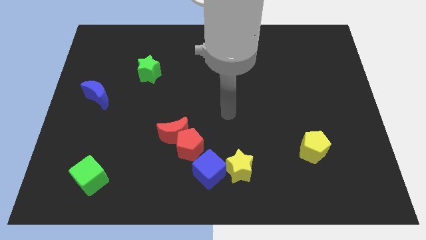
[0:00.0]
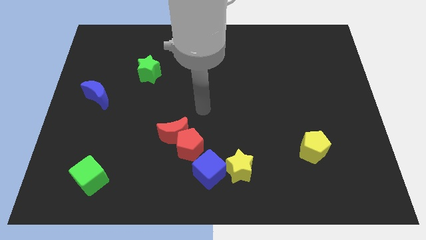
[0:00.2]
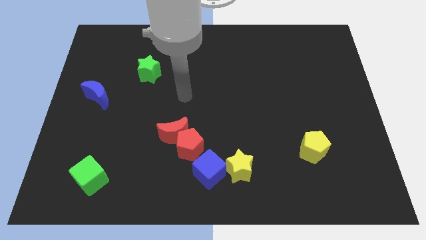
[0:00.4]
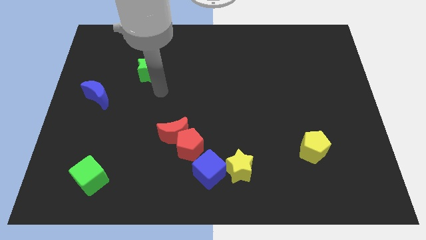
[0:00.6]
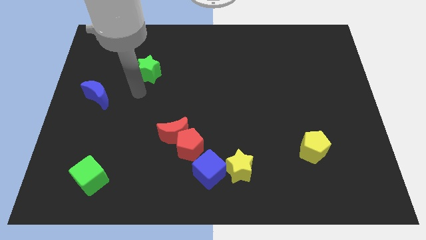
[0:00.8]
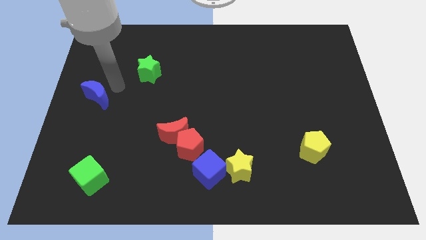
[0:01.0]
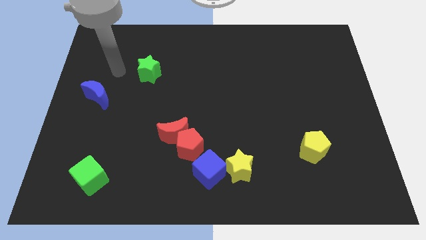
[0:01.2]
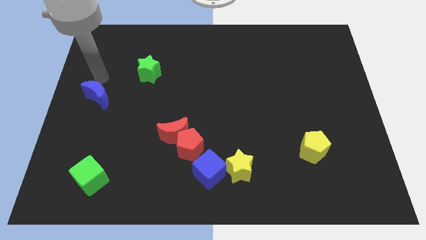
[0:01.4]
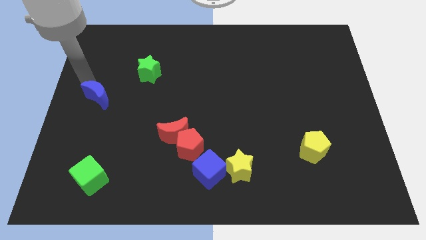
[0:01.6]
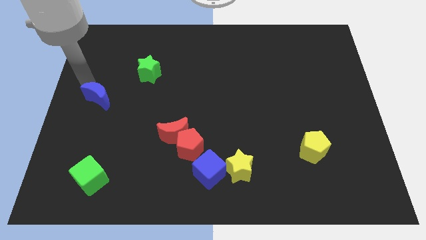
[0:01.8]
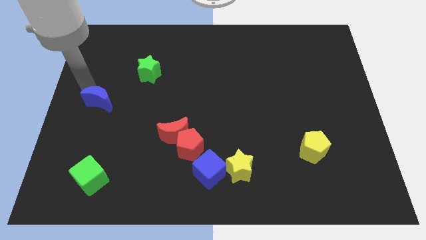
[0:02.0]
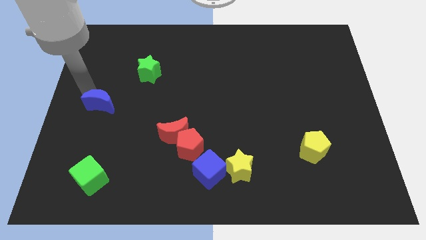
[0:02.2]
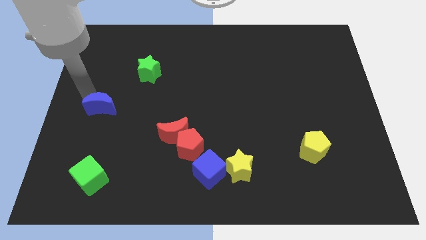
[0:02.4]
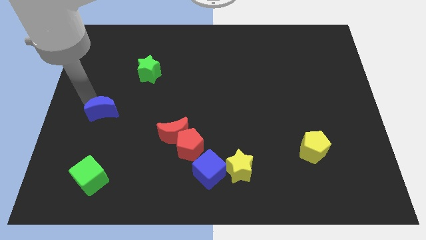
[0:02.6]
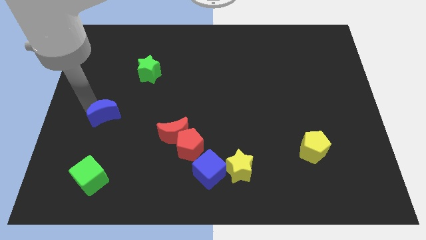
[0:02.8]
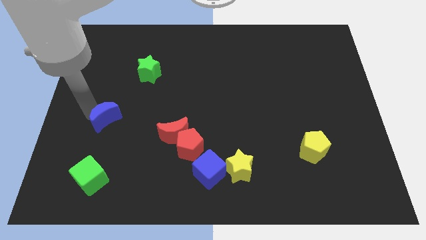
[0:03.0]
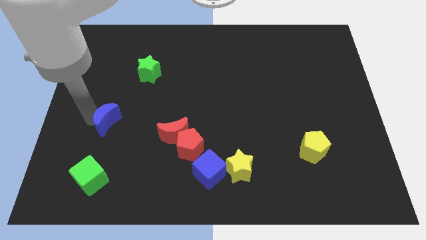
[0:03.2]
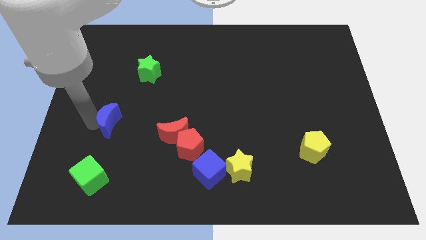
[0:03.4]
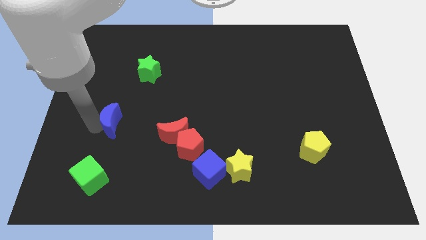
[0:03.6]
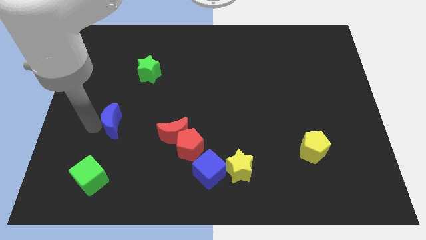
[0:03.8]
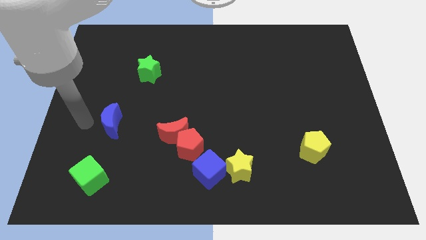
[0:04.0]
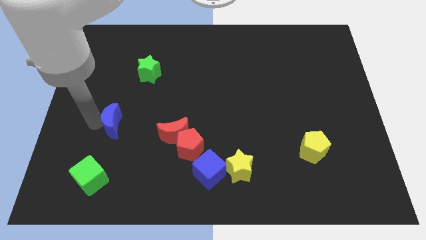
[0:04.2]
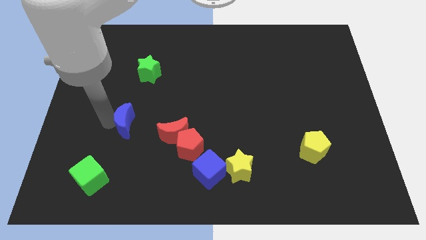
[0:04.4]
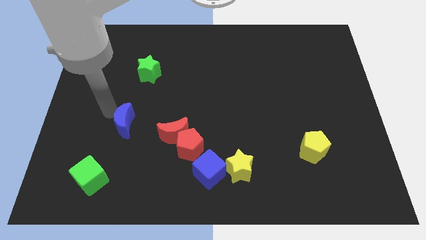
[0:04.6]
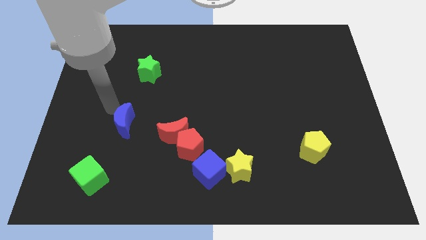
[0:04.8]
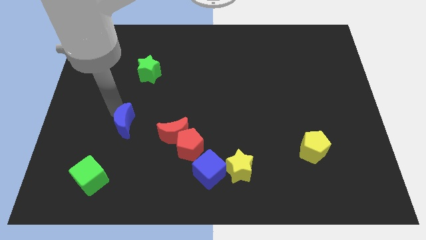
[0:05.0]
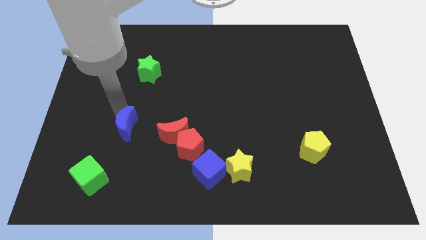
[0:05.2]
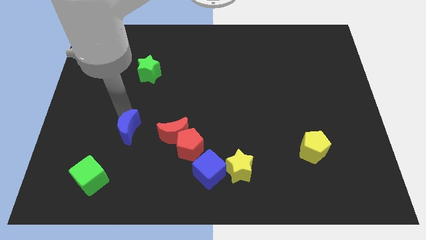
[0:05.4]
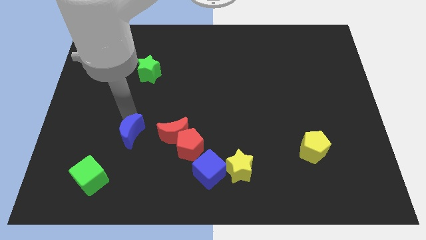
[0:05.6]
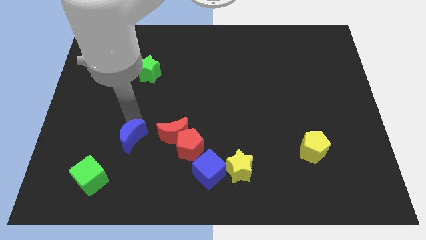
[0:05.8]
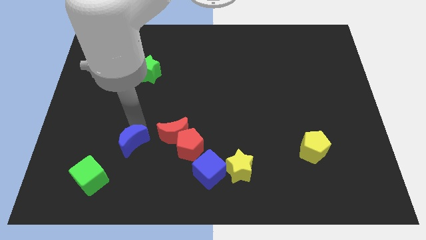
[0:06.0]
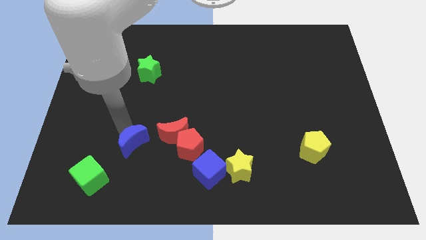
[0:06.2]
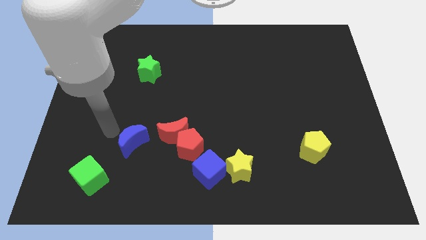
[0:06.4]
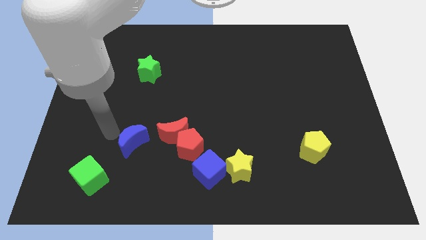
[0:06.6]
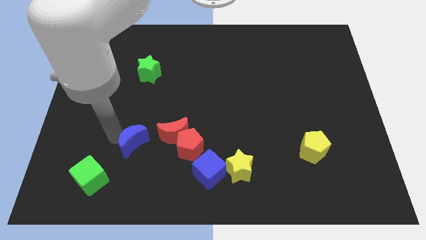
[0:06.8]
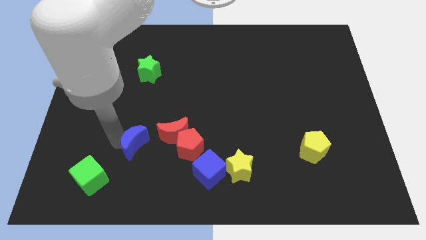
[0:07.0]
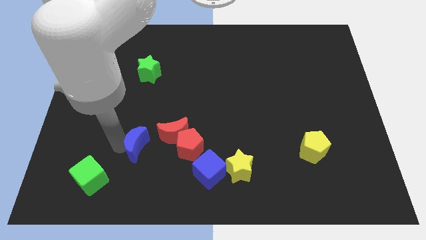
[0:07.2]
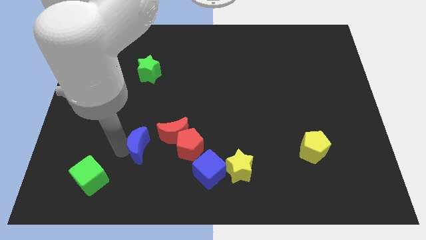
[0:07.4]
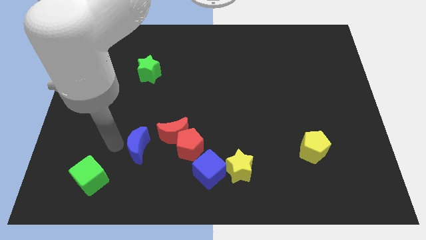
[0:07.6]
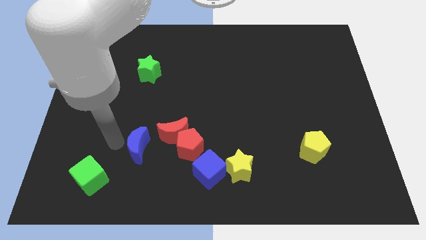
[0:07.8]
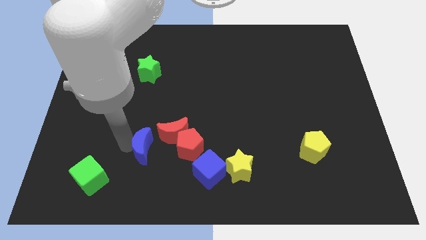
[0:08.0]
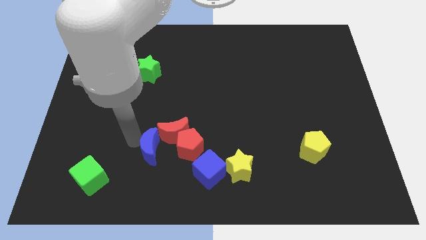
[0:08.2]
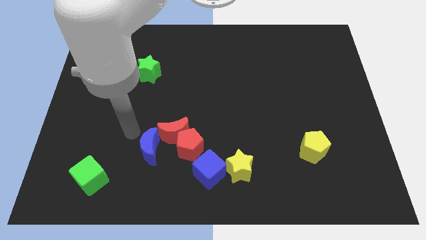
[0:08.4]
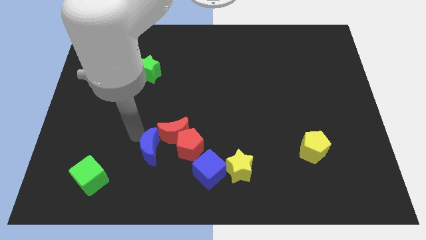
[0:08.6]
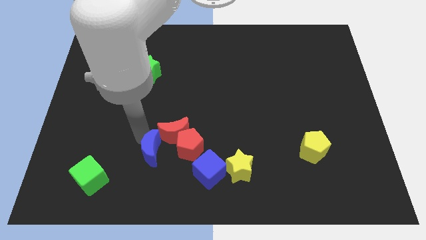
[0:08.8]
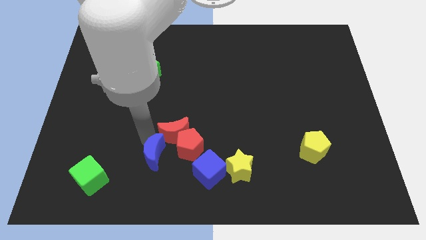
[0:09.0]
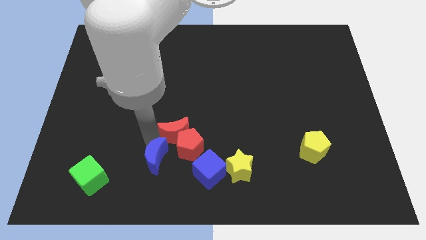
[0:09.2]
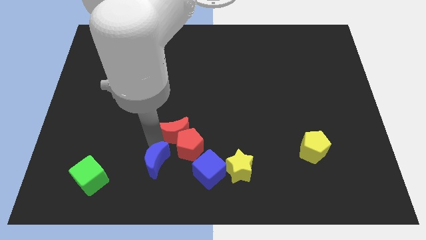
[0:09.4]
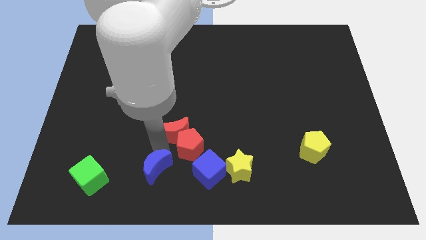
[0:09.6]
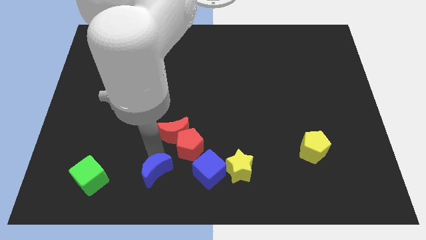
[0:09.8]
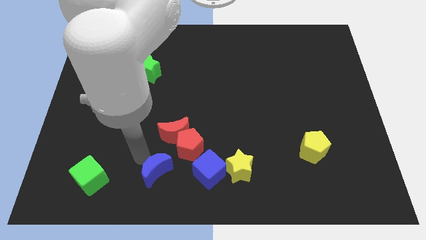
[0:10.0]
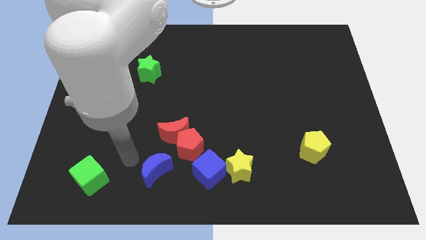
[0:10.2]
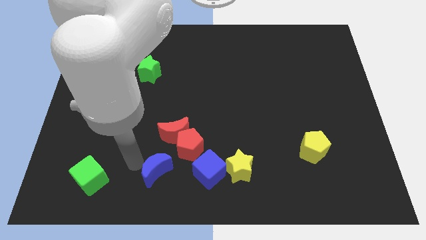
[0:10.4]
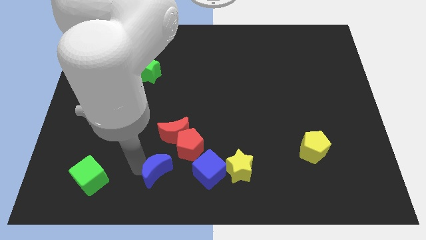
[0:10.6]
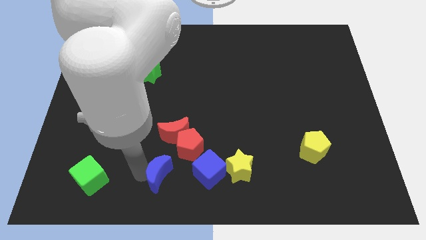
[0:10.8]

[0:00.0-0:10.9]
put the blue moon to the bottom

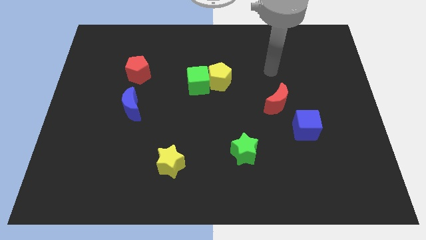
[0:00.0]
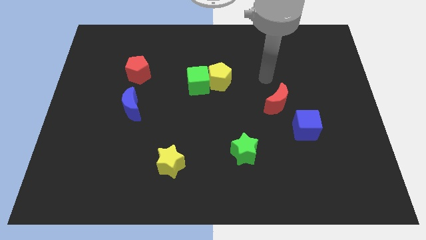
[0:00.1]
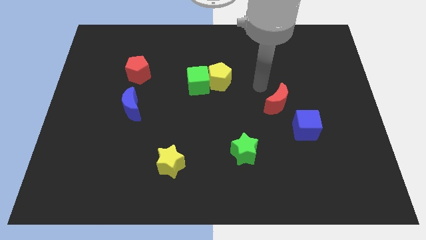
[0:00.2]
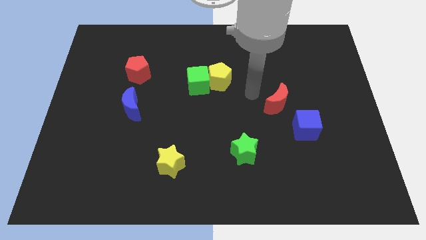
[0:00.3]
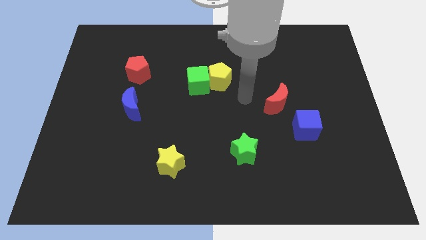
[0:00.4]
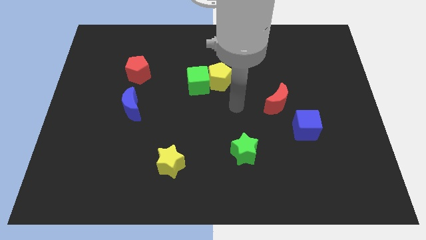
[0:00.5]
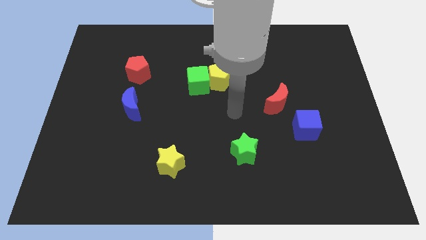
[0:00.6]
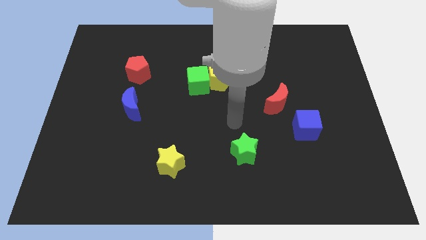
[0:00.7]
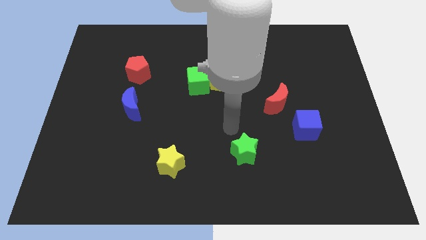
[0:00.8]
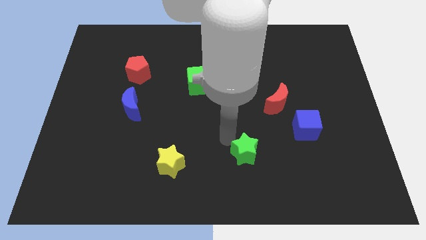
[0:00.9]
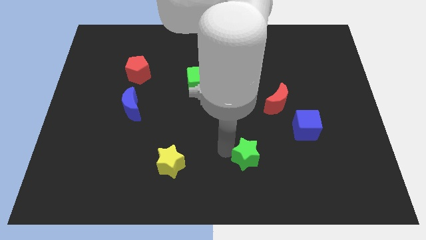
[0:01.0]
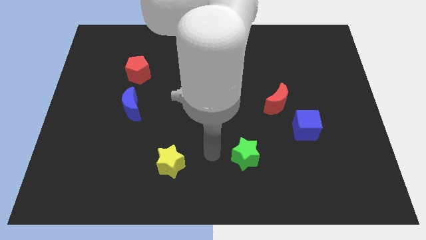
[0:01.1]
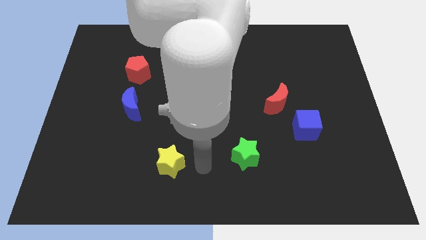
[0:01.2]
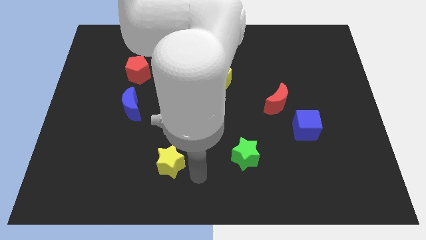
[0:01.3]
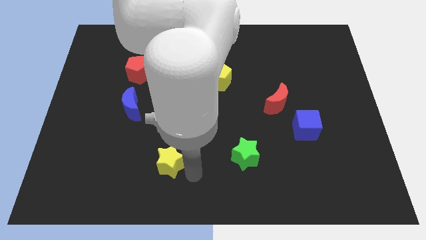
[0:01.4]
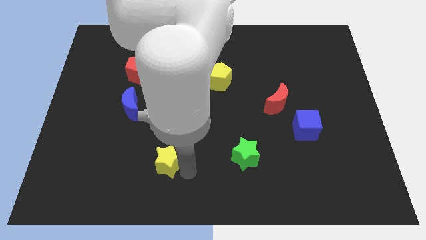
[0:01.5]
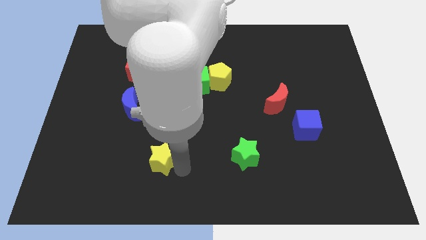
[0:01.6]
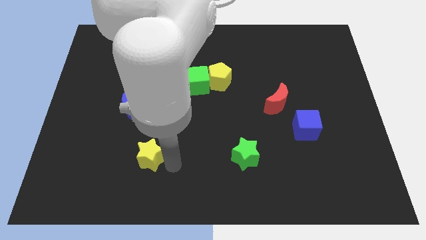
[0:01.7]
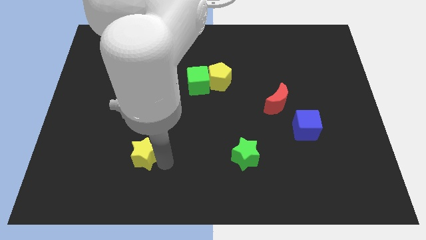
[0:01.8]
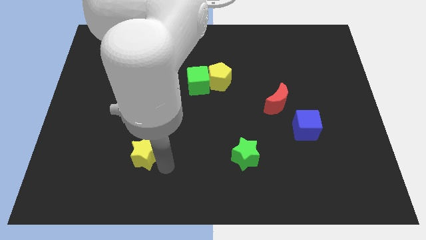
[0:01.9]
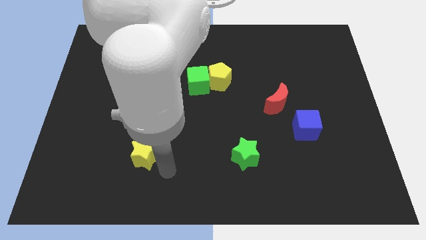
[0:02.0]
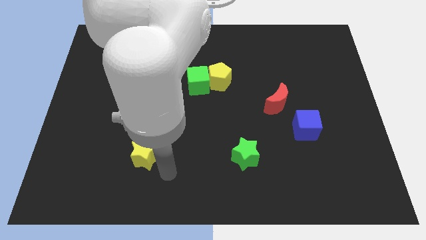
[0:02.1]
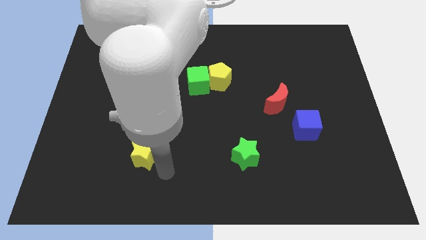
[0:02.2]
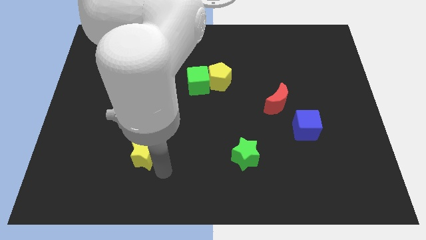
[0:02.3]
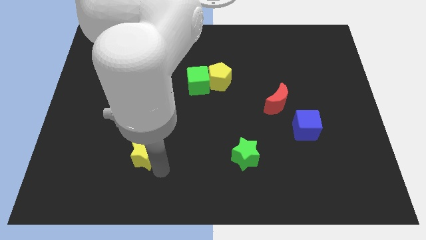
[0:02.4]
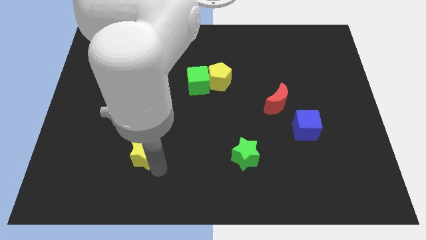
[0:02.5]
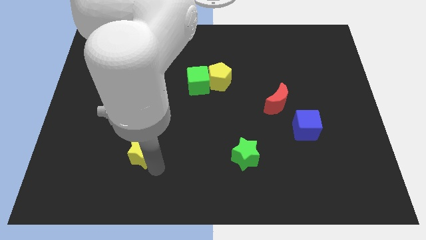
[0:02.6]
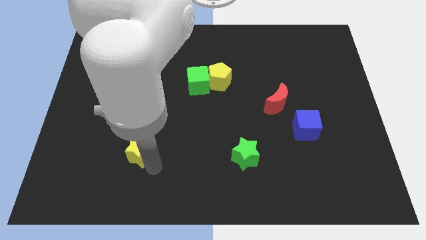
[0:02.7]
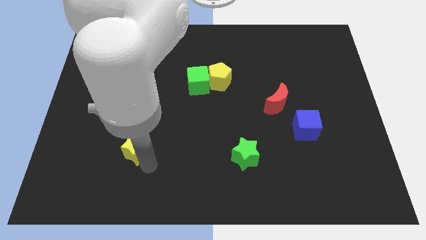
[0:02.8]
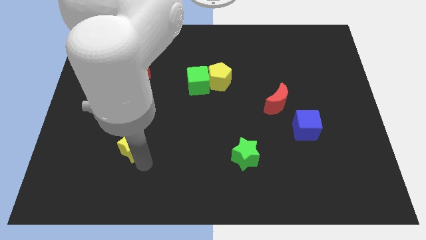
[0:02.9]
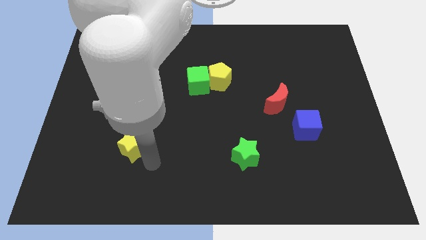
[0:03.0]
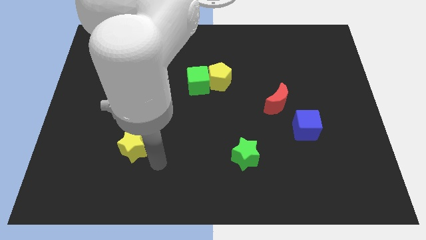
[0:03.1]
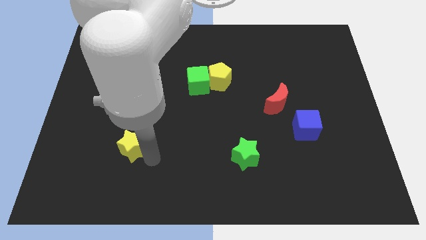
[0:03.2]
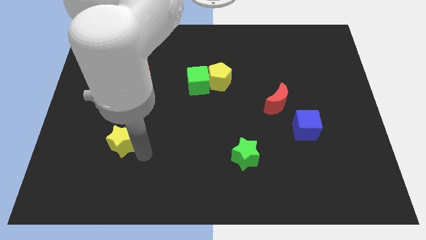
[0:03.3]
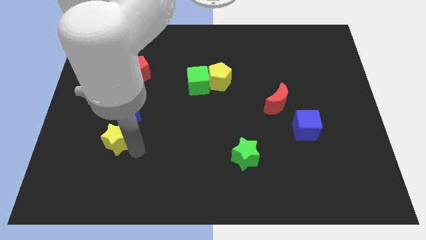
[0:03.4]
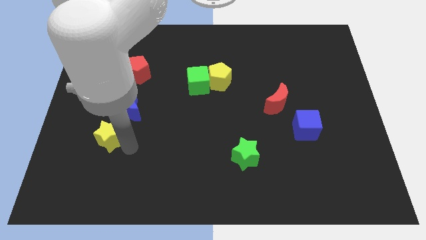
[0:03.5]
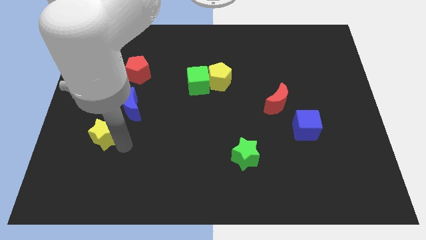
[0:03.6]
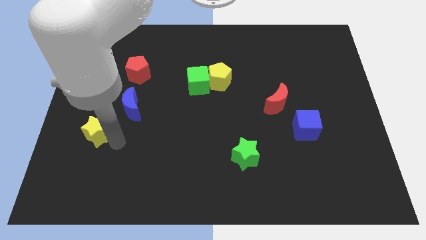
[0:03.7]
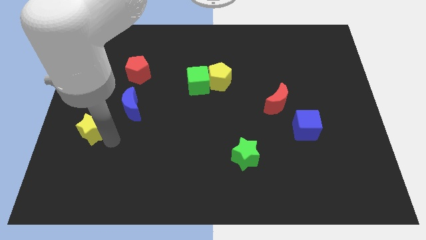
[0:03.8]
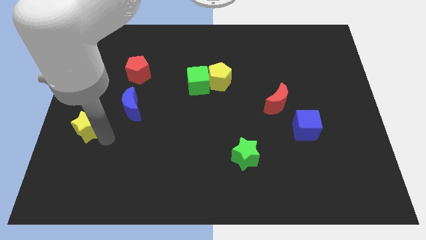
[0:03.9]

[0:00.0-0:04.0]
slide the yellow star to the left side of the board
